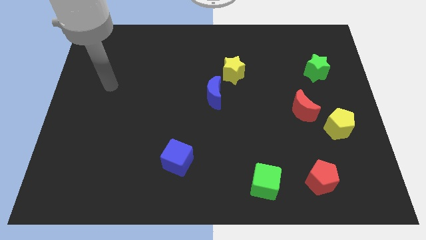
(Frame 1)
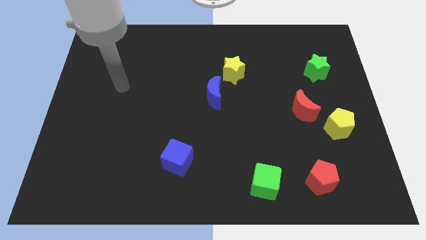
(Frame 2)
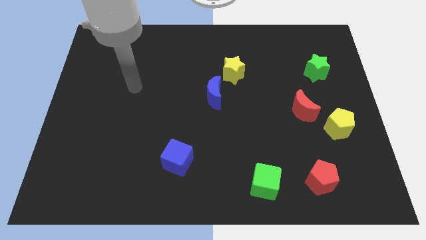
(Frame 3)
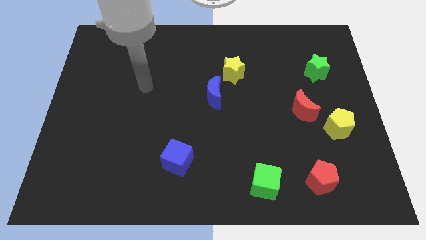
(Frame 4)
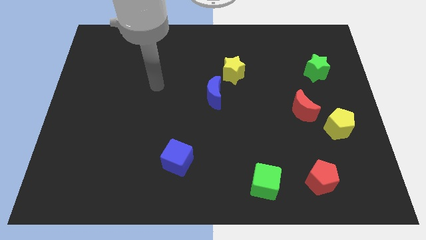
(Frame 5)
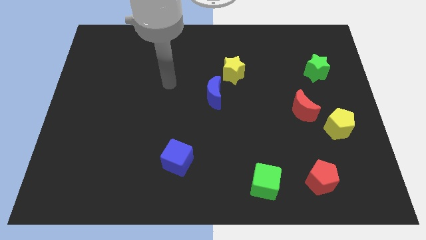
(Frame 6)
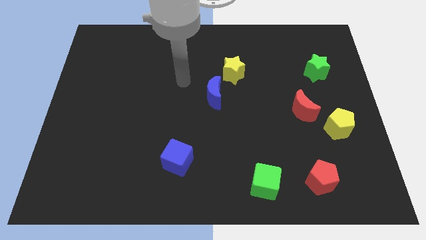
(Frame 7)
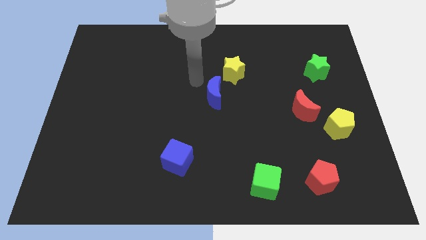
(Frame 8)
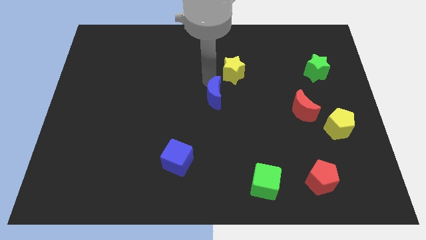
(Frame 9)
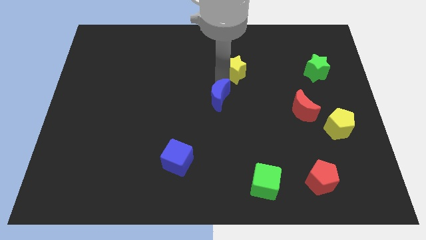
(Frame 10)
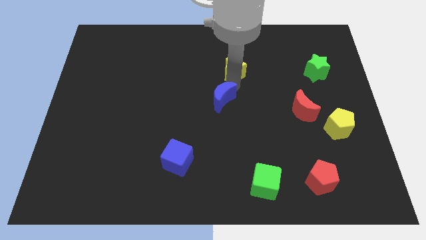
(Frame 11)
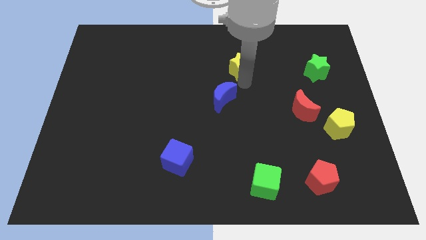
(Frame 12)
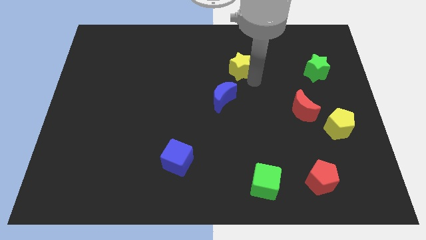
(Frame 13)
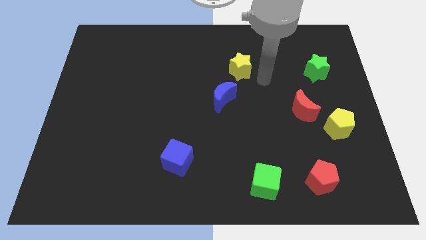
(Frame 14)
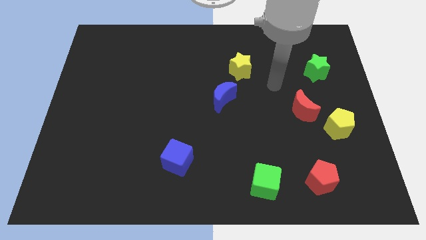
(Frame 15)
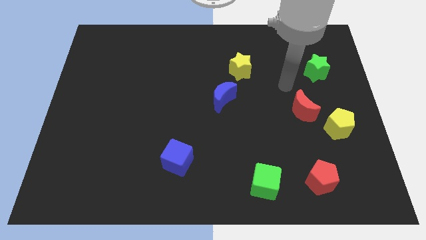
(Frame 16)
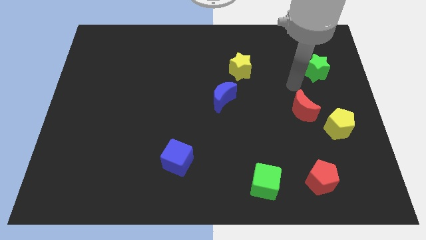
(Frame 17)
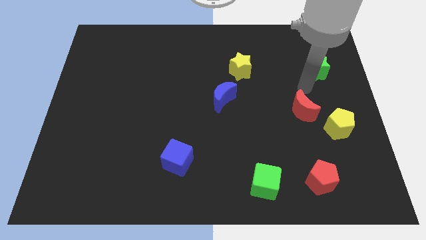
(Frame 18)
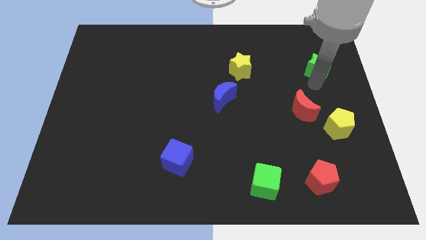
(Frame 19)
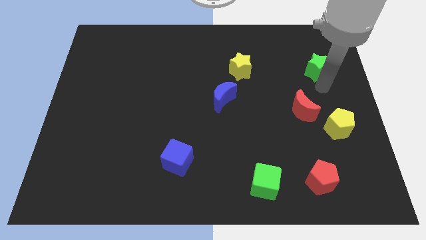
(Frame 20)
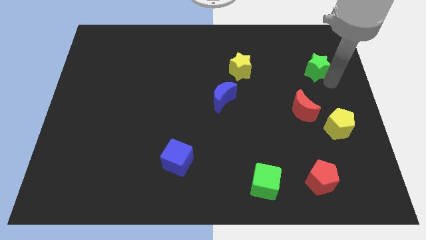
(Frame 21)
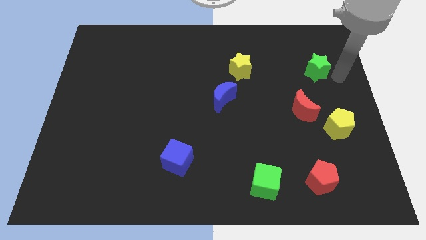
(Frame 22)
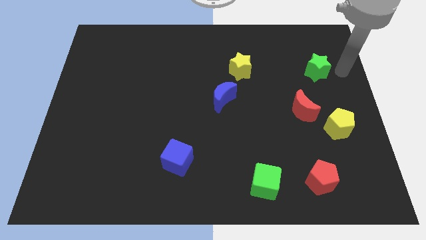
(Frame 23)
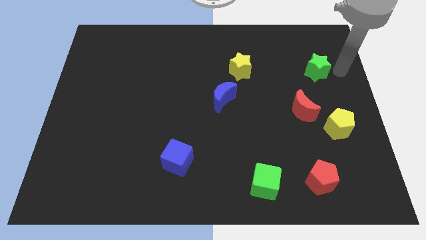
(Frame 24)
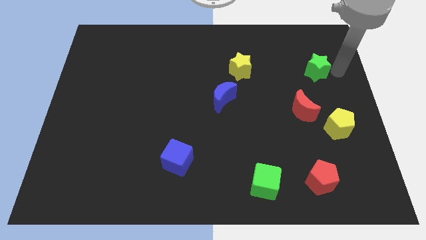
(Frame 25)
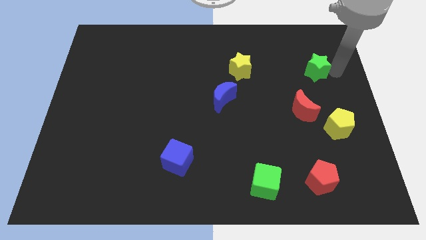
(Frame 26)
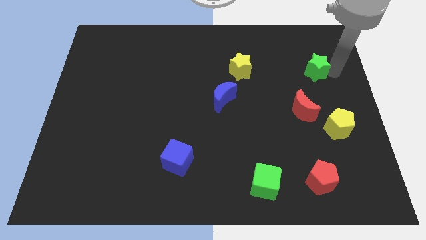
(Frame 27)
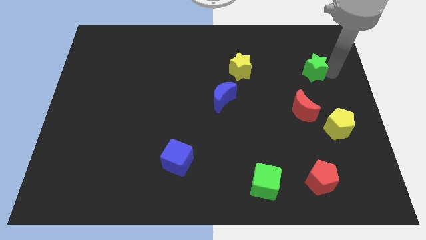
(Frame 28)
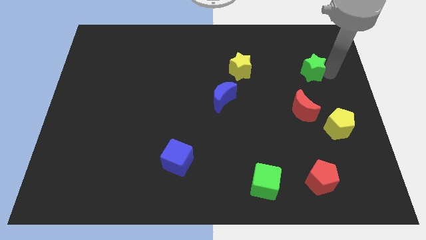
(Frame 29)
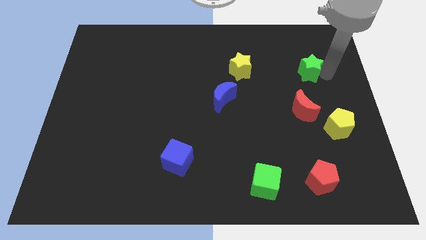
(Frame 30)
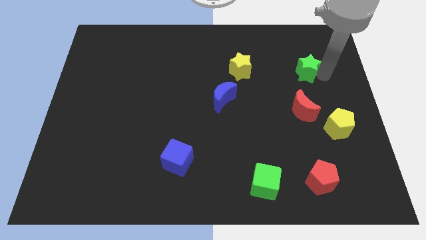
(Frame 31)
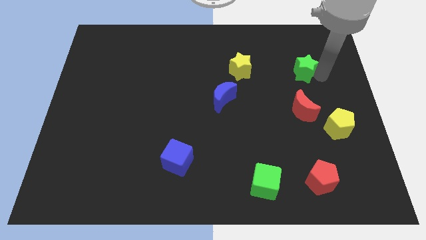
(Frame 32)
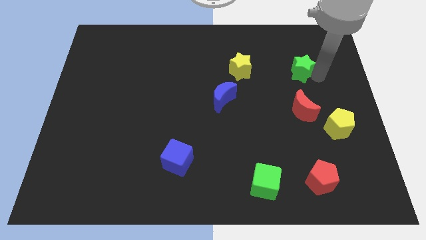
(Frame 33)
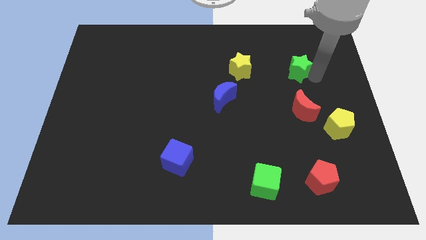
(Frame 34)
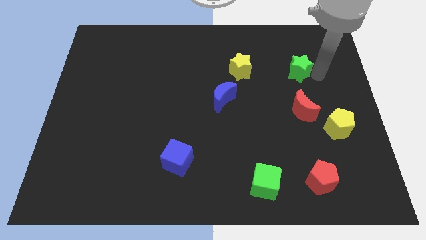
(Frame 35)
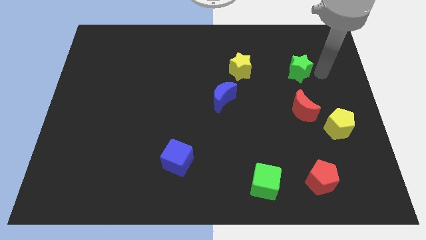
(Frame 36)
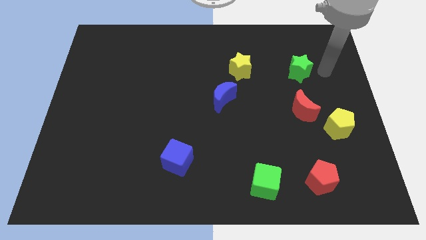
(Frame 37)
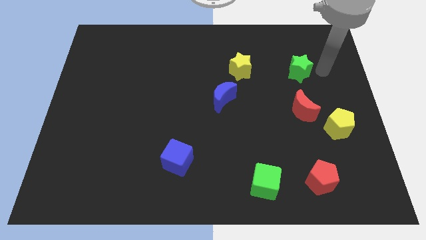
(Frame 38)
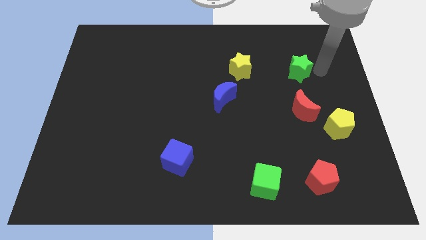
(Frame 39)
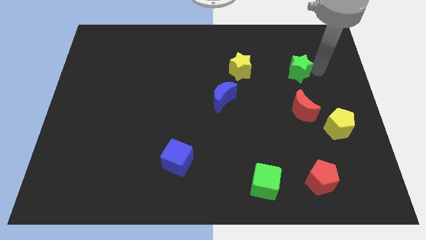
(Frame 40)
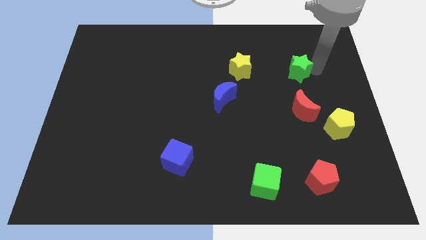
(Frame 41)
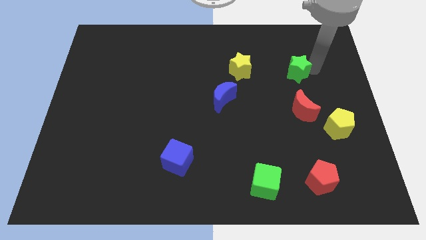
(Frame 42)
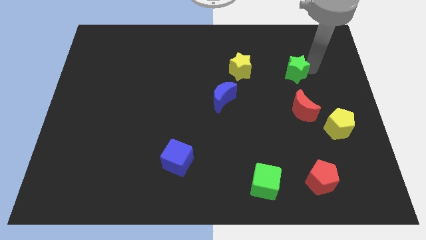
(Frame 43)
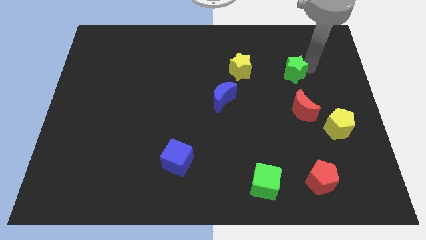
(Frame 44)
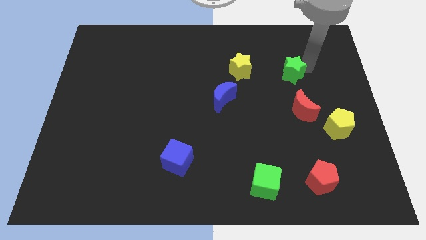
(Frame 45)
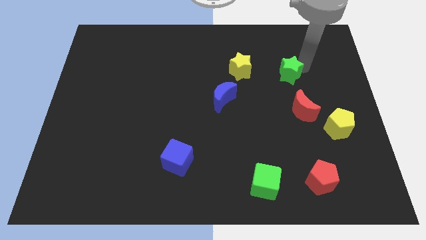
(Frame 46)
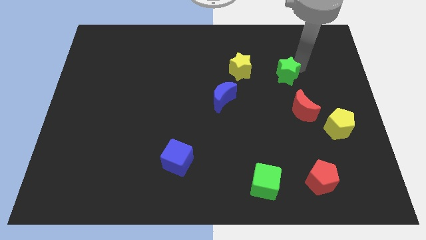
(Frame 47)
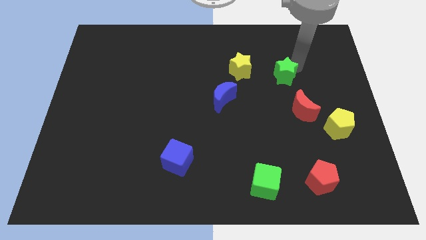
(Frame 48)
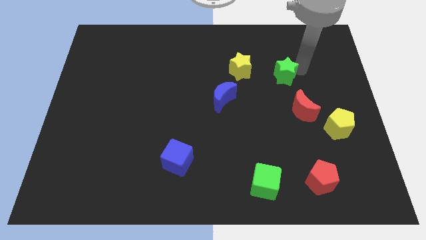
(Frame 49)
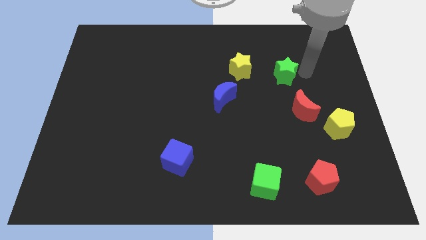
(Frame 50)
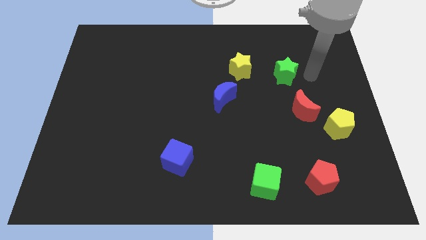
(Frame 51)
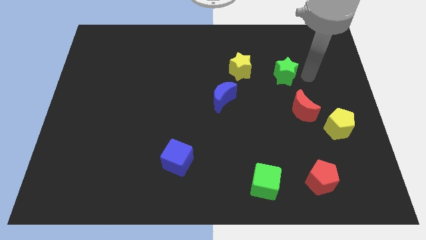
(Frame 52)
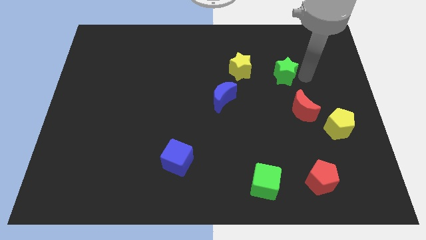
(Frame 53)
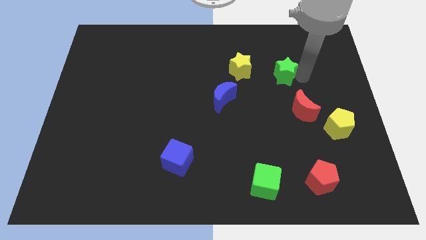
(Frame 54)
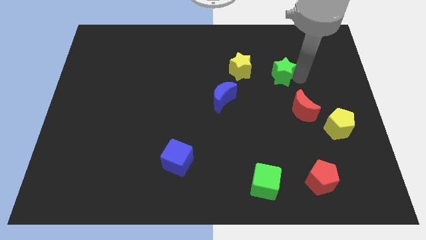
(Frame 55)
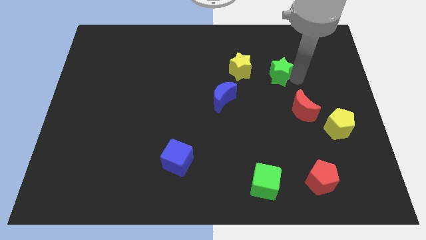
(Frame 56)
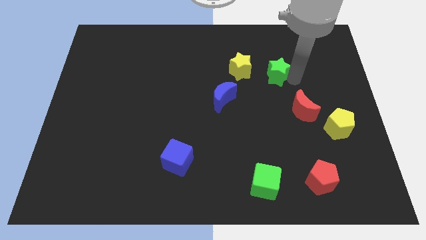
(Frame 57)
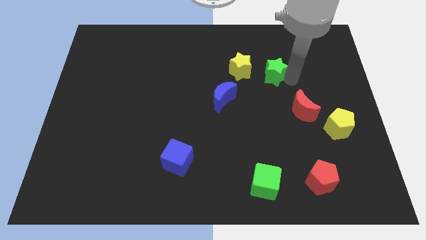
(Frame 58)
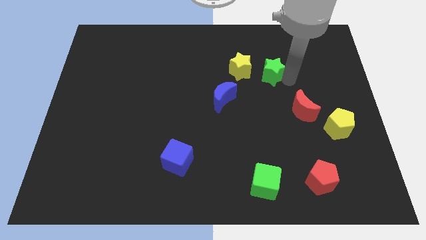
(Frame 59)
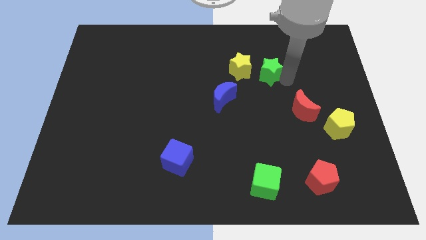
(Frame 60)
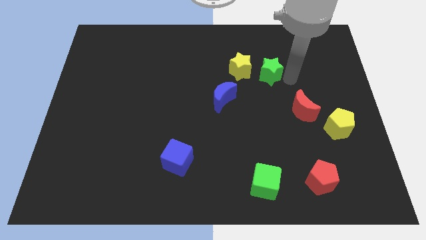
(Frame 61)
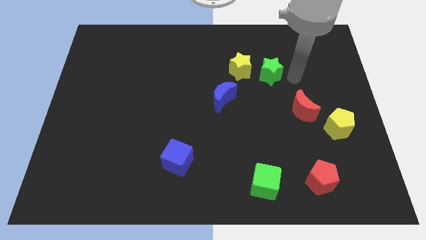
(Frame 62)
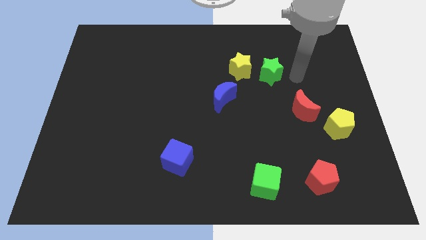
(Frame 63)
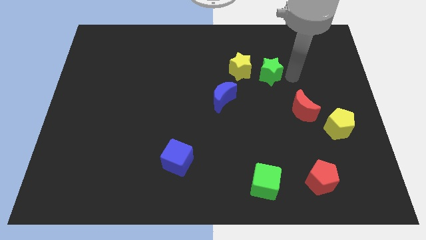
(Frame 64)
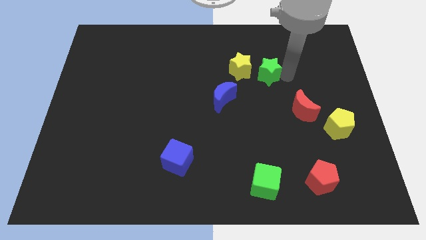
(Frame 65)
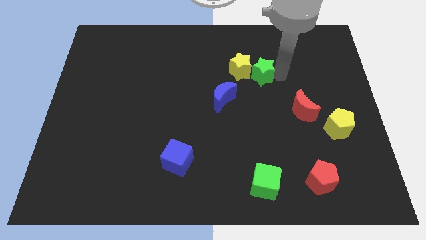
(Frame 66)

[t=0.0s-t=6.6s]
push the green star towards the yellow star

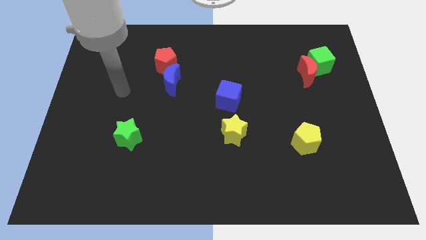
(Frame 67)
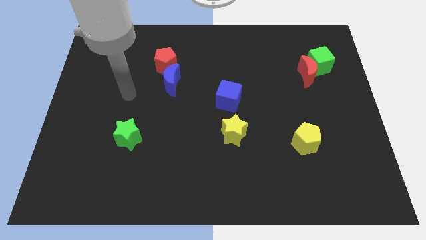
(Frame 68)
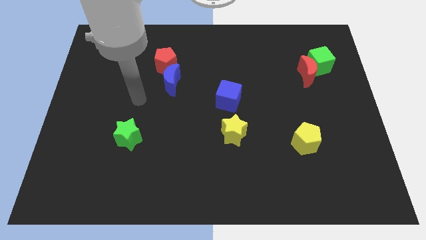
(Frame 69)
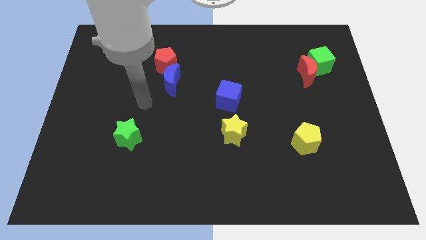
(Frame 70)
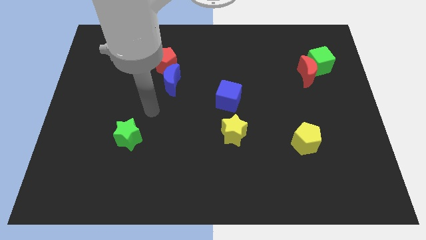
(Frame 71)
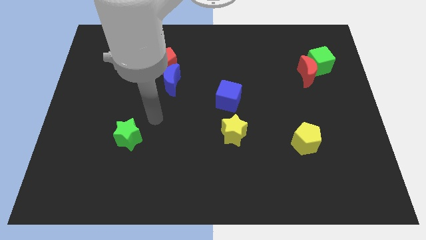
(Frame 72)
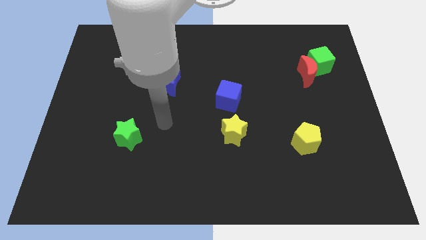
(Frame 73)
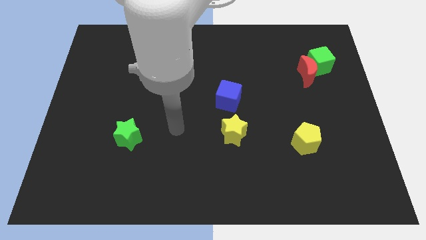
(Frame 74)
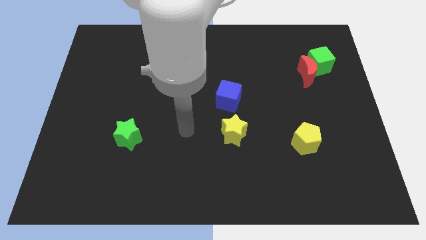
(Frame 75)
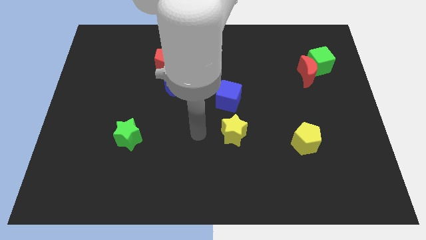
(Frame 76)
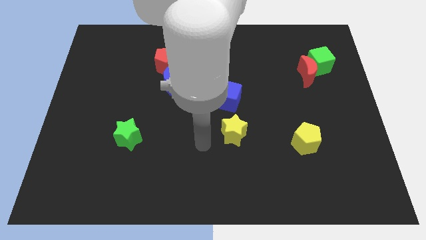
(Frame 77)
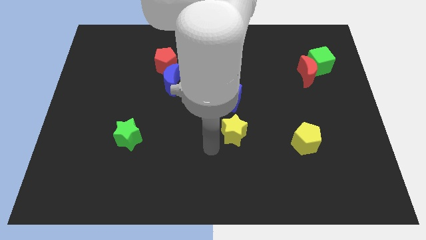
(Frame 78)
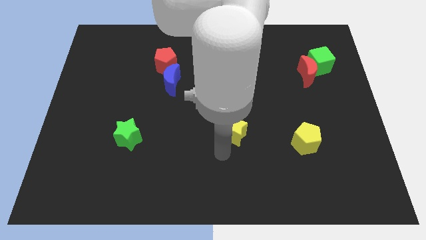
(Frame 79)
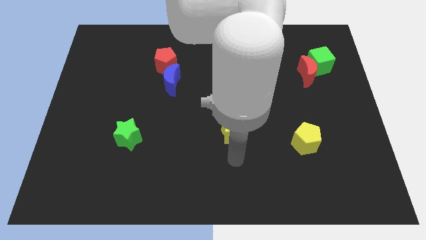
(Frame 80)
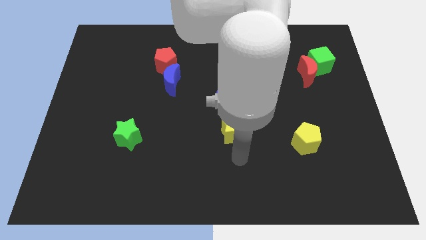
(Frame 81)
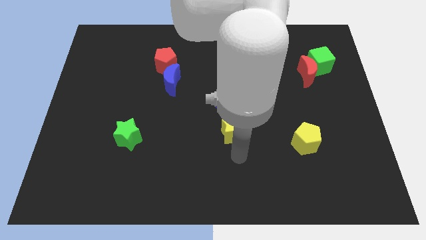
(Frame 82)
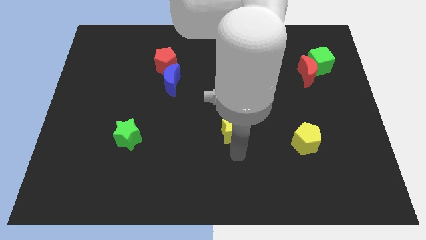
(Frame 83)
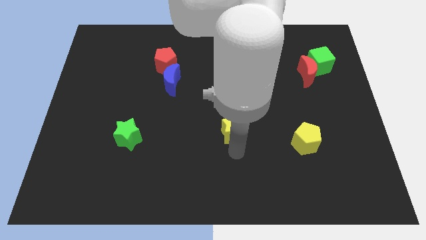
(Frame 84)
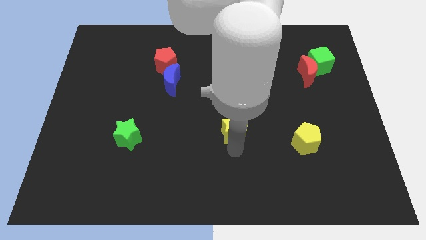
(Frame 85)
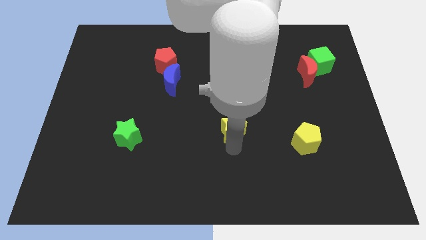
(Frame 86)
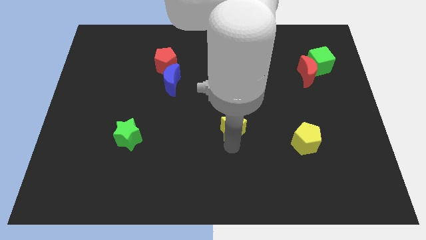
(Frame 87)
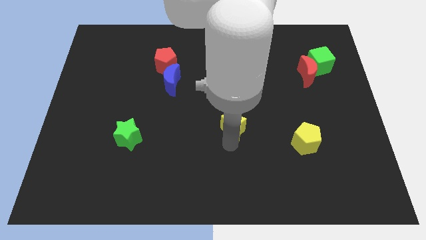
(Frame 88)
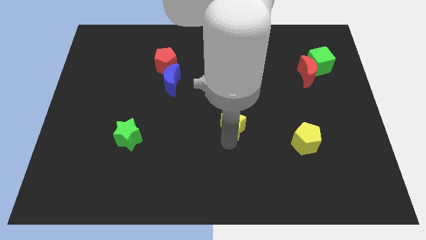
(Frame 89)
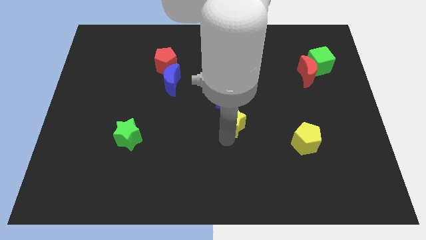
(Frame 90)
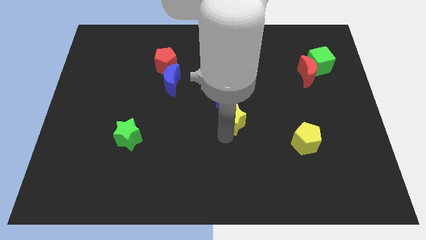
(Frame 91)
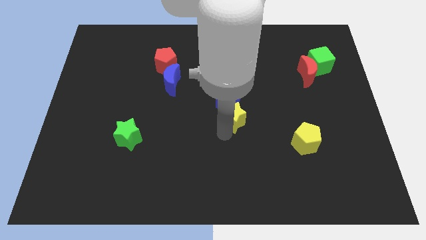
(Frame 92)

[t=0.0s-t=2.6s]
push the yellow star towards the blue cube
